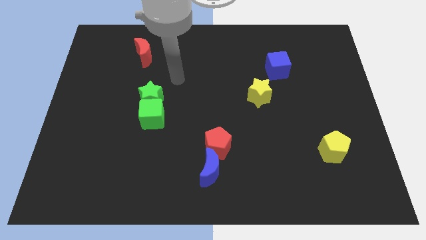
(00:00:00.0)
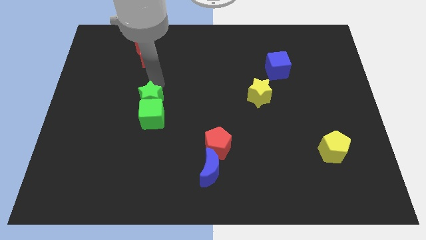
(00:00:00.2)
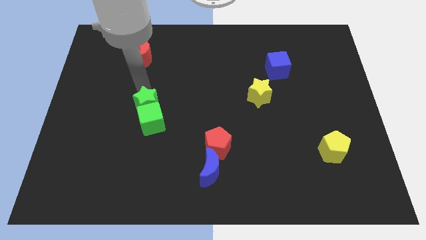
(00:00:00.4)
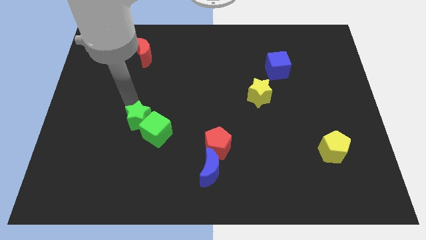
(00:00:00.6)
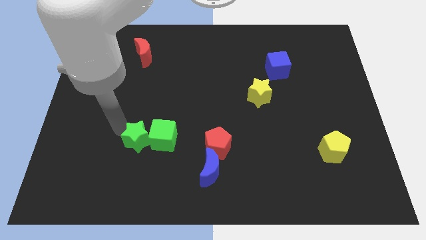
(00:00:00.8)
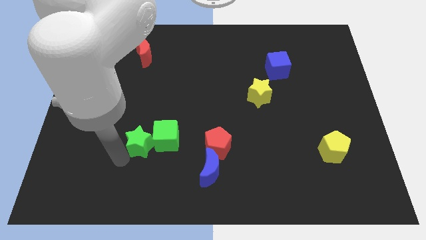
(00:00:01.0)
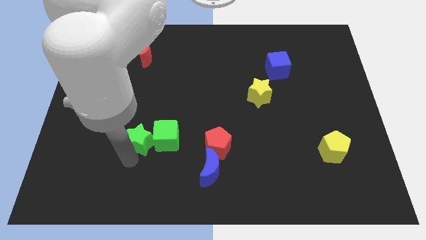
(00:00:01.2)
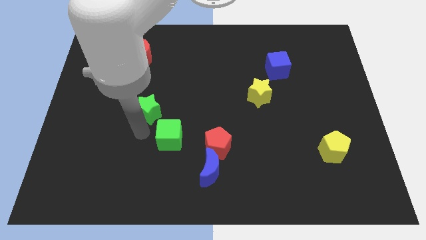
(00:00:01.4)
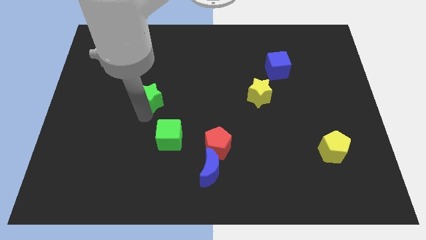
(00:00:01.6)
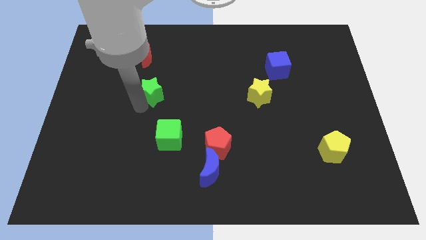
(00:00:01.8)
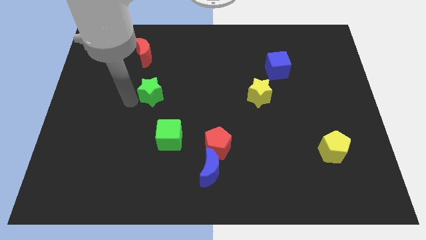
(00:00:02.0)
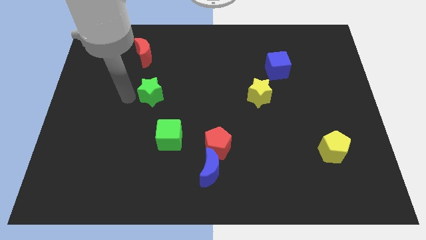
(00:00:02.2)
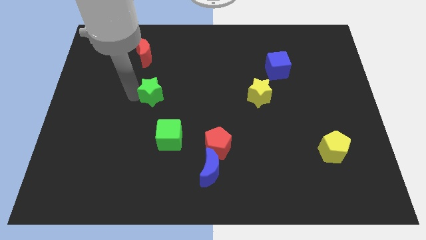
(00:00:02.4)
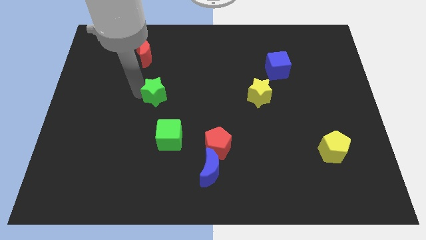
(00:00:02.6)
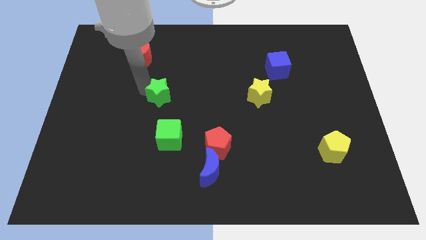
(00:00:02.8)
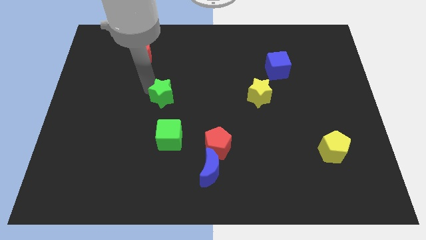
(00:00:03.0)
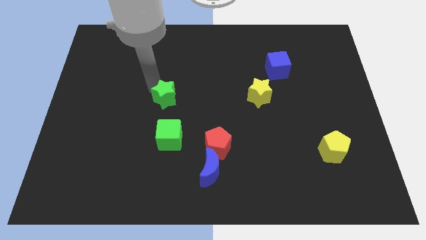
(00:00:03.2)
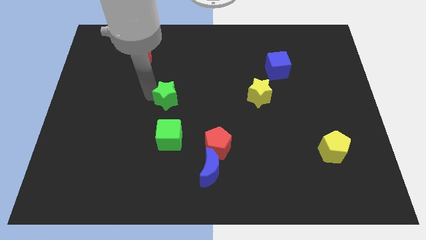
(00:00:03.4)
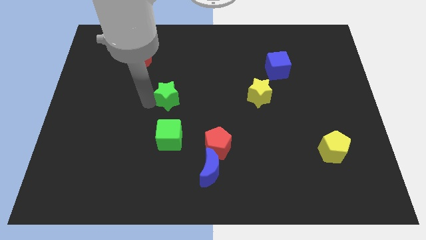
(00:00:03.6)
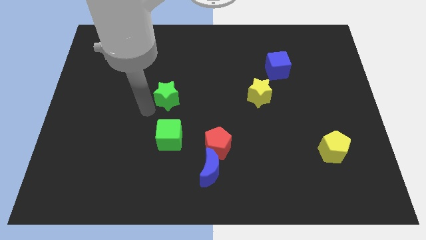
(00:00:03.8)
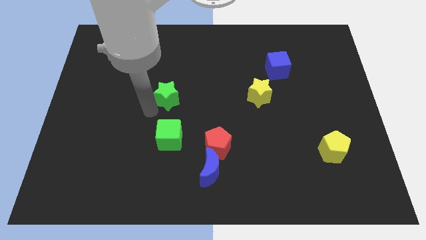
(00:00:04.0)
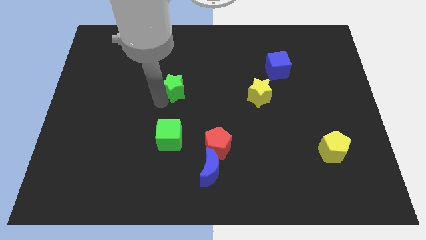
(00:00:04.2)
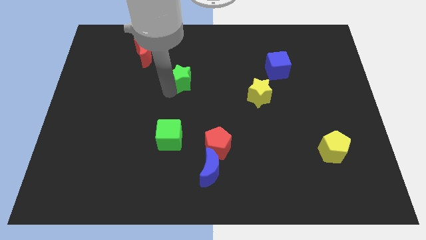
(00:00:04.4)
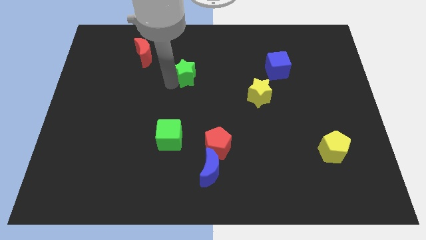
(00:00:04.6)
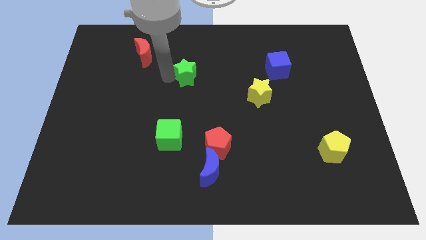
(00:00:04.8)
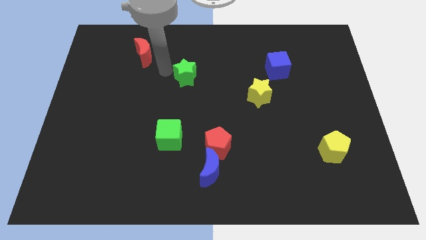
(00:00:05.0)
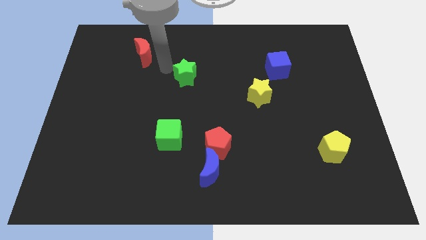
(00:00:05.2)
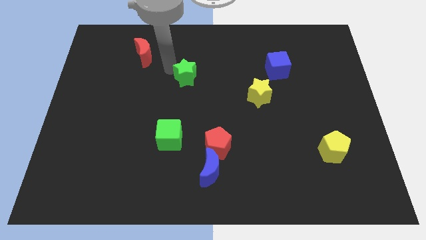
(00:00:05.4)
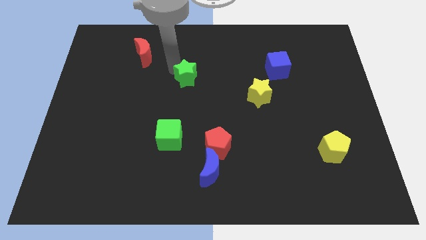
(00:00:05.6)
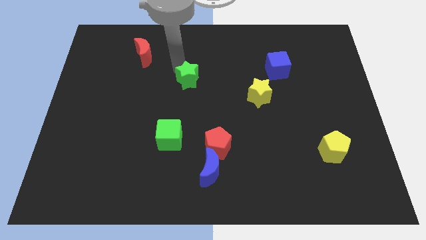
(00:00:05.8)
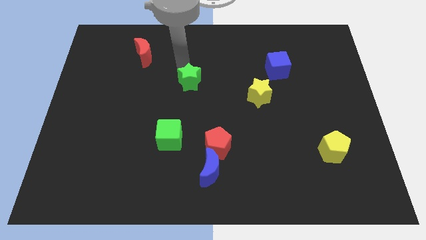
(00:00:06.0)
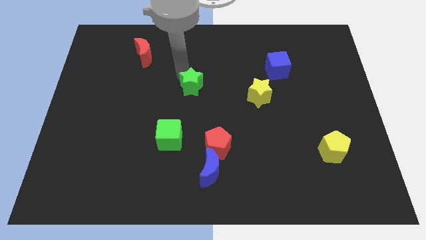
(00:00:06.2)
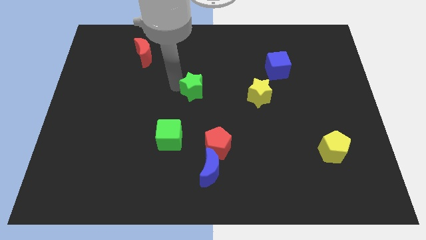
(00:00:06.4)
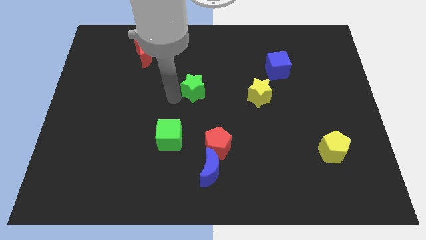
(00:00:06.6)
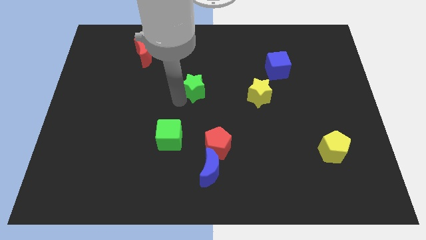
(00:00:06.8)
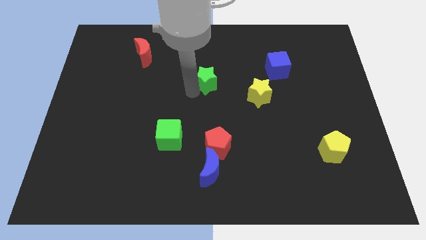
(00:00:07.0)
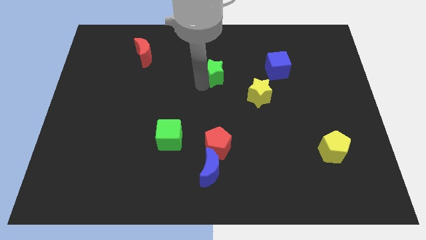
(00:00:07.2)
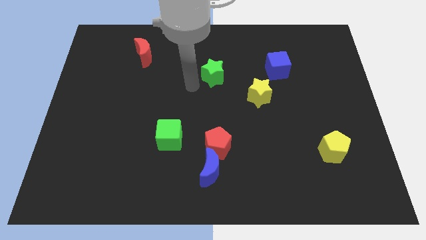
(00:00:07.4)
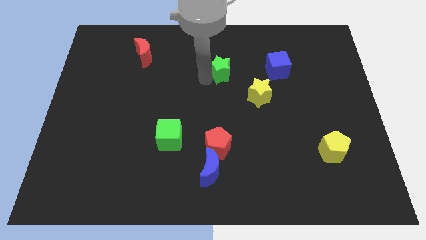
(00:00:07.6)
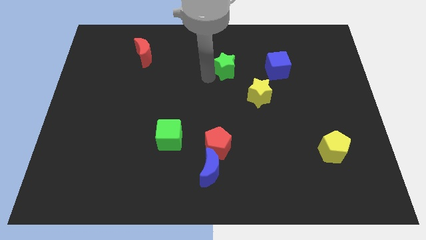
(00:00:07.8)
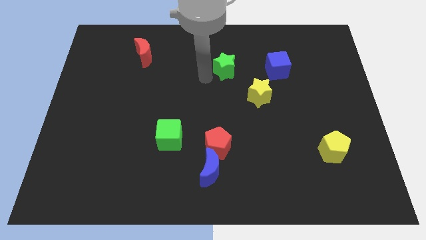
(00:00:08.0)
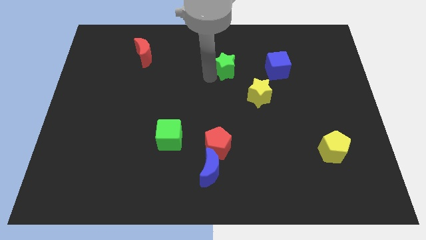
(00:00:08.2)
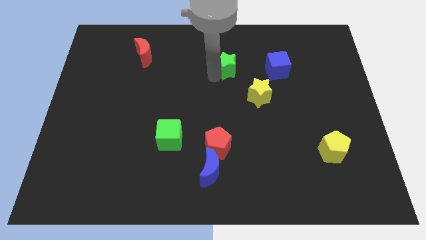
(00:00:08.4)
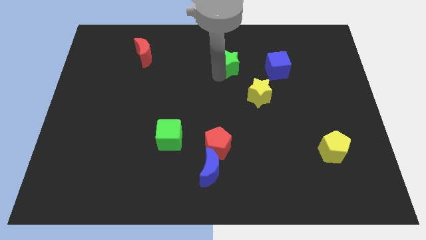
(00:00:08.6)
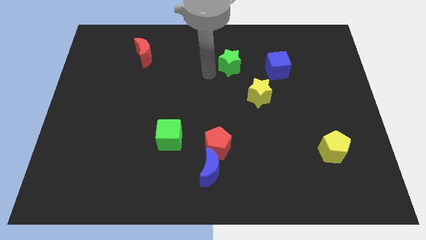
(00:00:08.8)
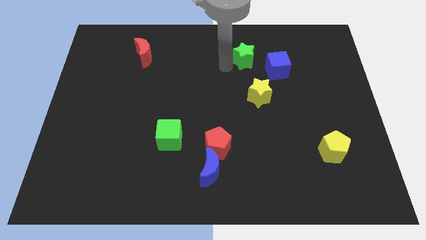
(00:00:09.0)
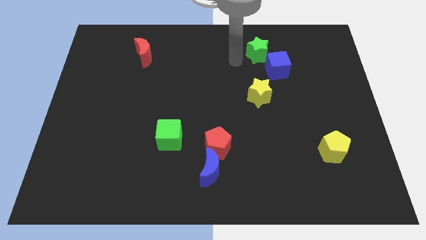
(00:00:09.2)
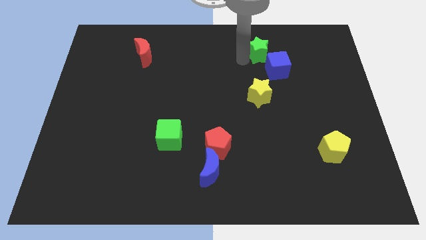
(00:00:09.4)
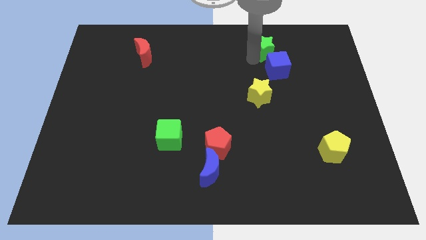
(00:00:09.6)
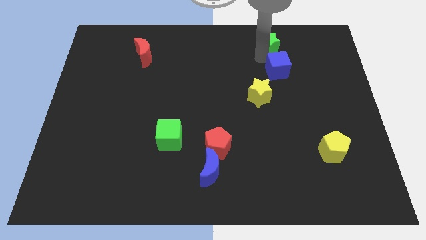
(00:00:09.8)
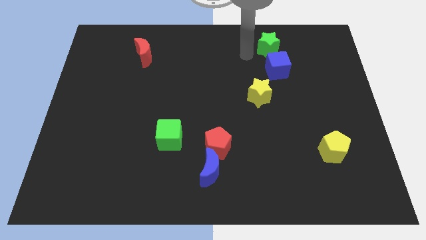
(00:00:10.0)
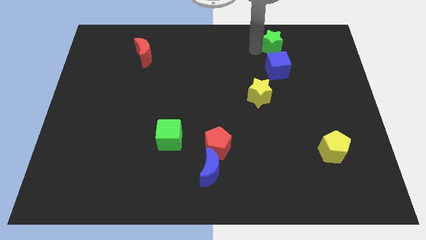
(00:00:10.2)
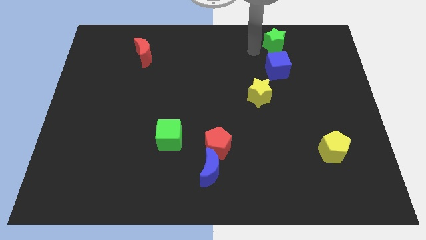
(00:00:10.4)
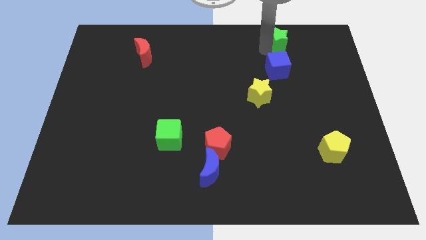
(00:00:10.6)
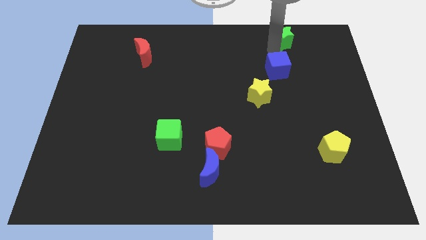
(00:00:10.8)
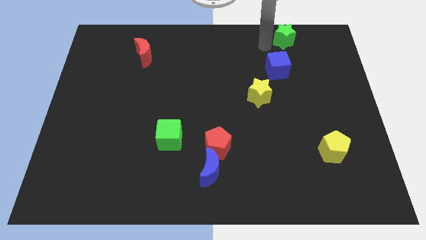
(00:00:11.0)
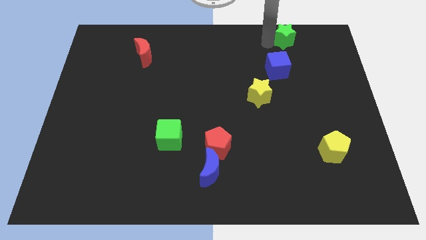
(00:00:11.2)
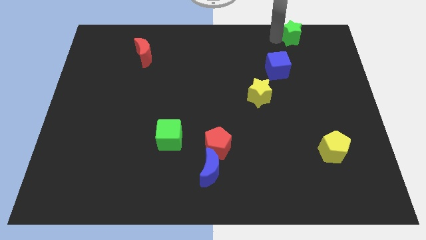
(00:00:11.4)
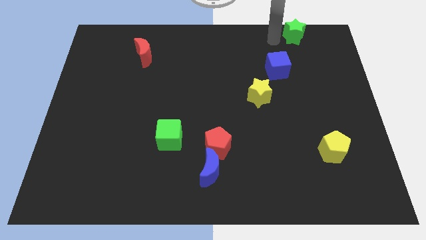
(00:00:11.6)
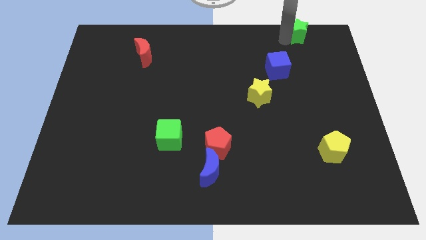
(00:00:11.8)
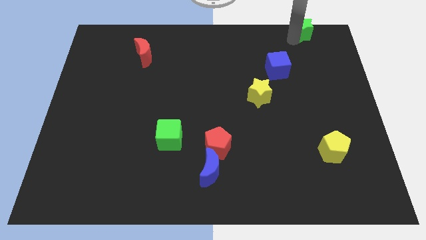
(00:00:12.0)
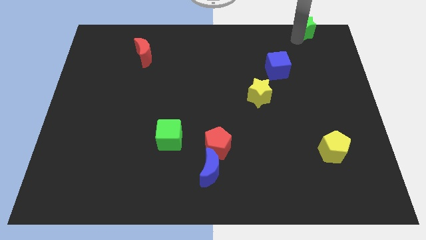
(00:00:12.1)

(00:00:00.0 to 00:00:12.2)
put the green star to the upper right corner
